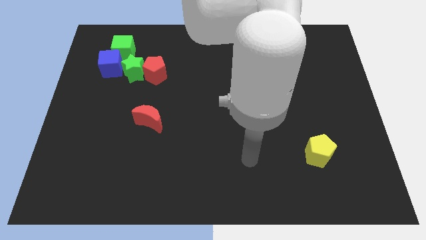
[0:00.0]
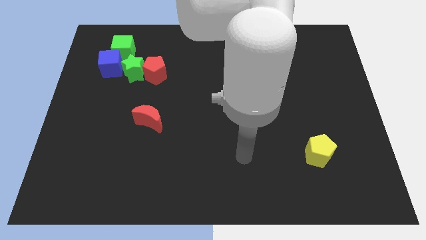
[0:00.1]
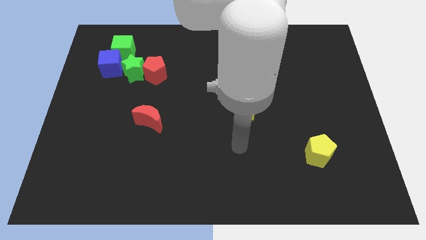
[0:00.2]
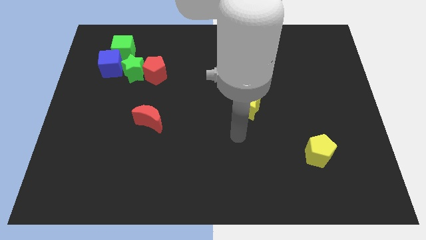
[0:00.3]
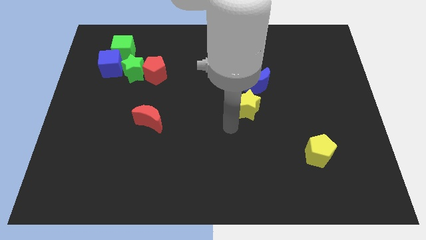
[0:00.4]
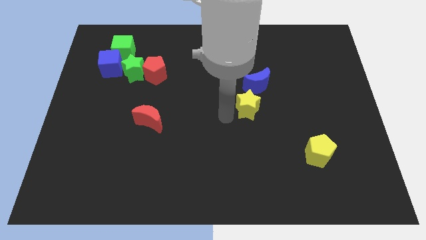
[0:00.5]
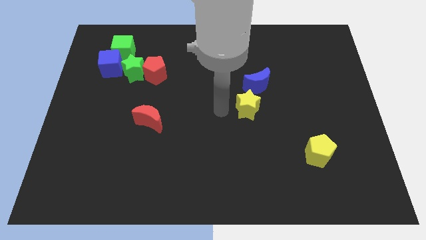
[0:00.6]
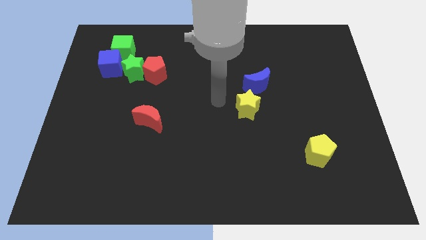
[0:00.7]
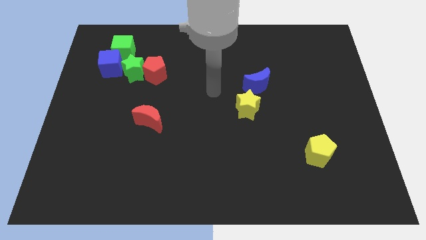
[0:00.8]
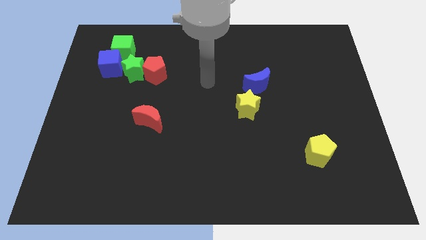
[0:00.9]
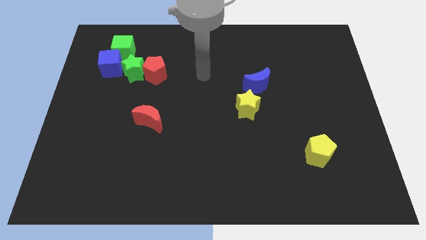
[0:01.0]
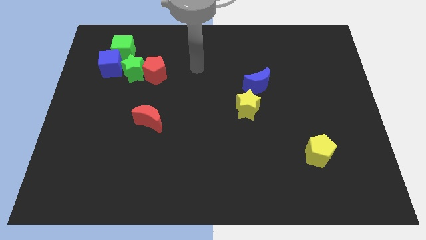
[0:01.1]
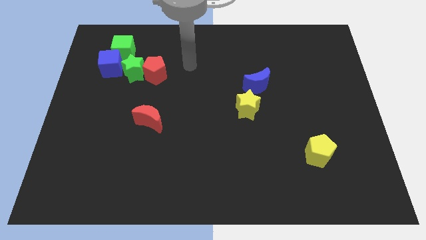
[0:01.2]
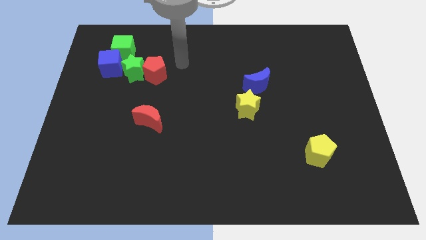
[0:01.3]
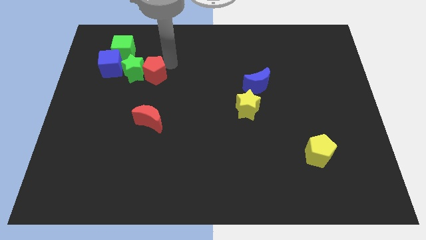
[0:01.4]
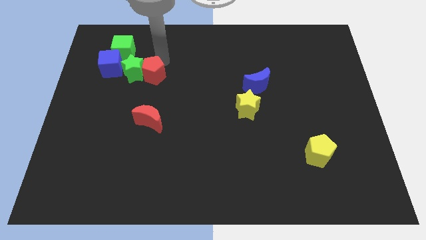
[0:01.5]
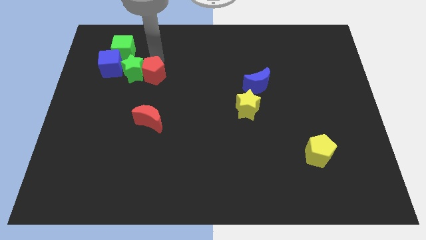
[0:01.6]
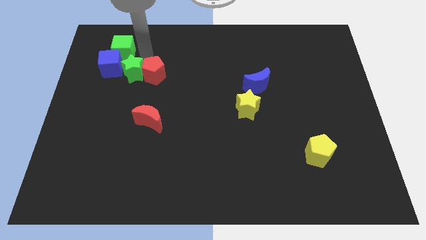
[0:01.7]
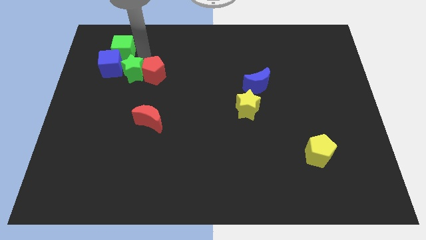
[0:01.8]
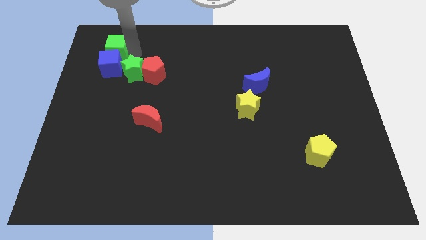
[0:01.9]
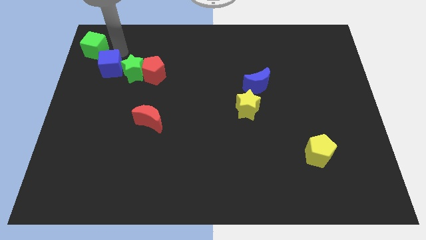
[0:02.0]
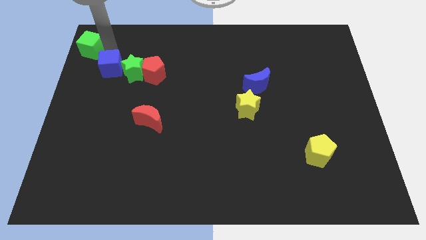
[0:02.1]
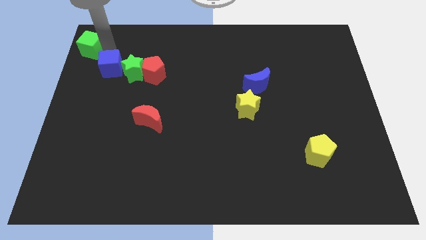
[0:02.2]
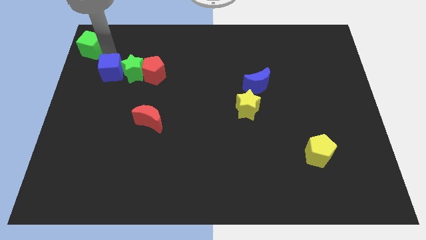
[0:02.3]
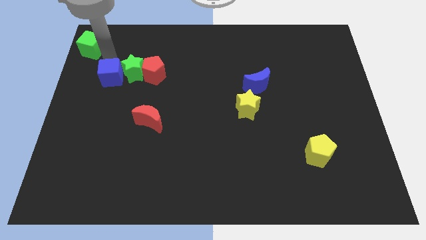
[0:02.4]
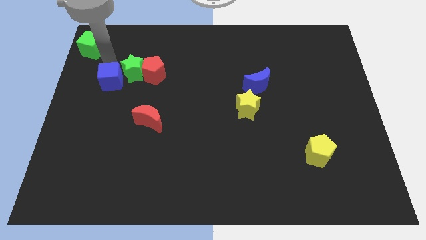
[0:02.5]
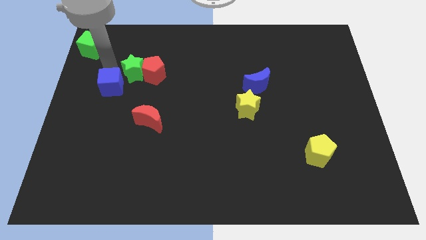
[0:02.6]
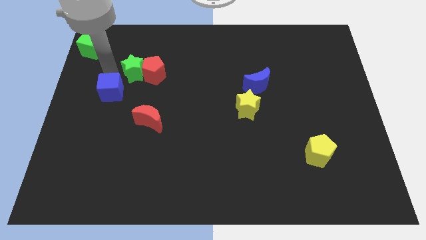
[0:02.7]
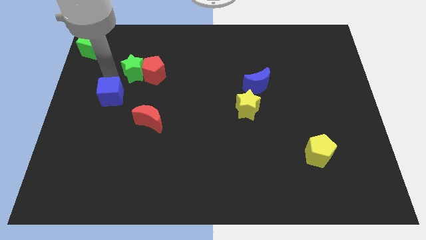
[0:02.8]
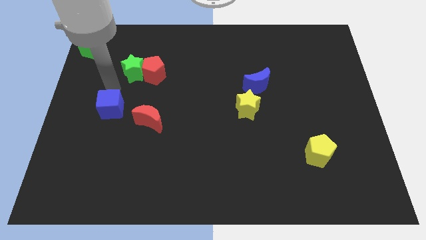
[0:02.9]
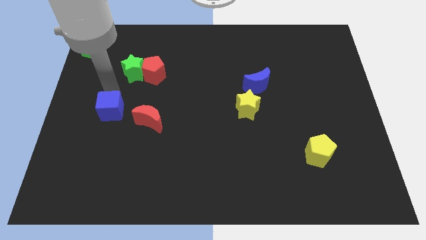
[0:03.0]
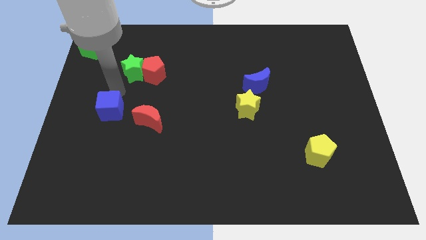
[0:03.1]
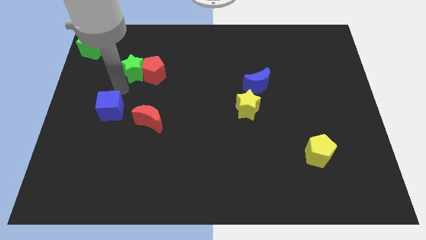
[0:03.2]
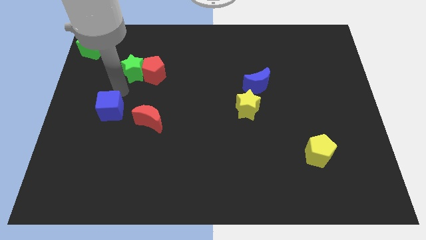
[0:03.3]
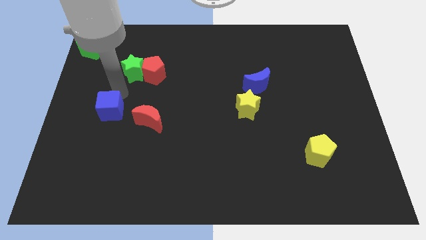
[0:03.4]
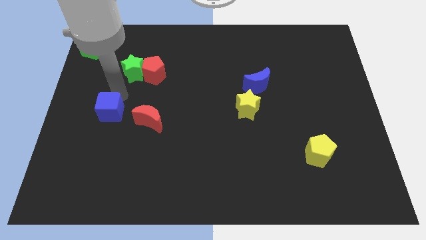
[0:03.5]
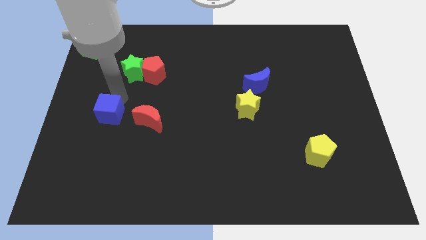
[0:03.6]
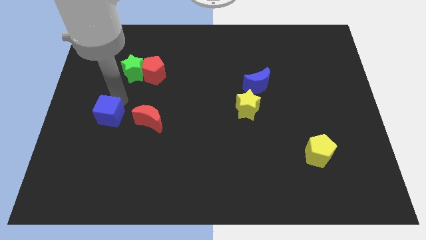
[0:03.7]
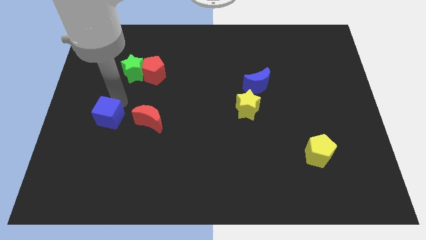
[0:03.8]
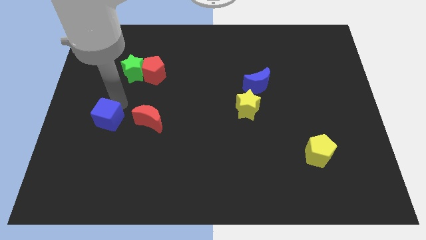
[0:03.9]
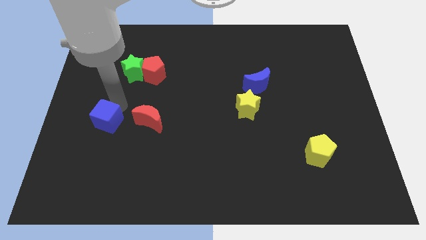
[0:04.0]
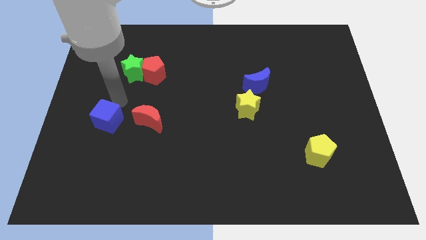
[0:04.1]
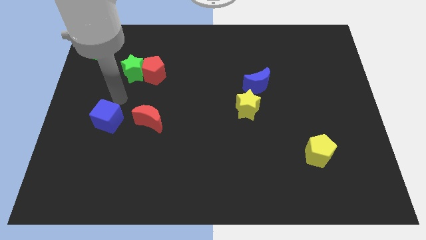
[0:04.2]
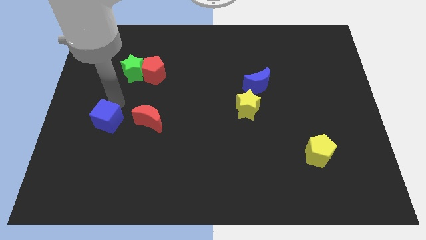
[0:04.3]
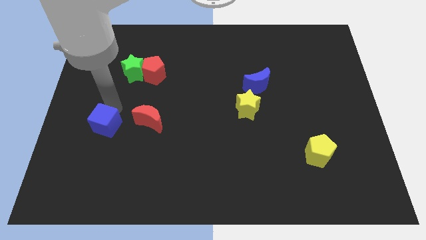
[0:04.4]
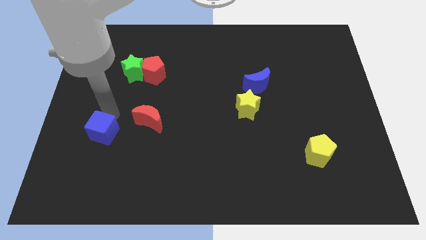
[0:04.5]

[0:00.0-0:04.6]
move the blue cube downwards

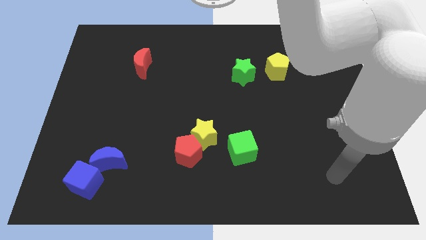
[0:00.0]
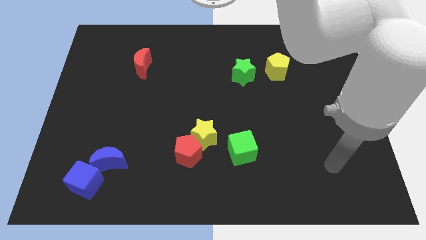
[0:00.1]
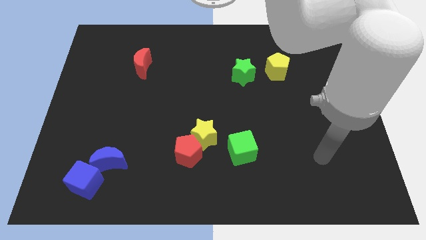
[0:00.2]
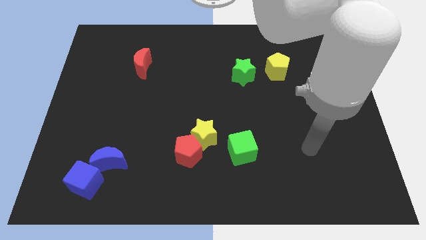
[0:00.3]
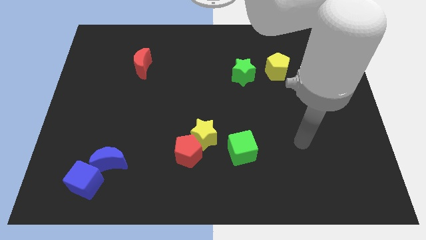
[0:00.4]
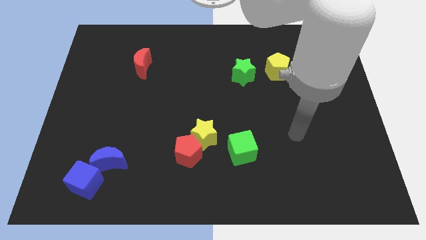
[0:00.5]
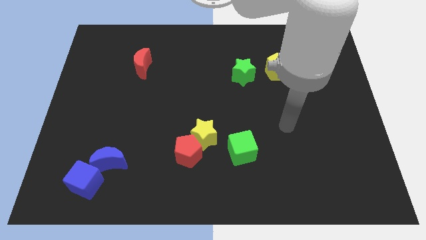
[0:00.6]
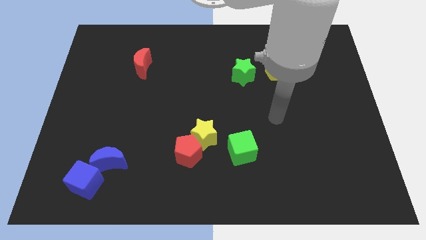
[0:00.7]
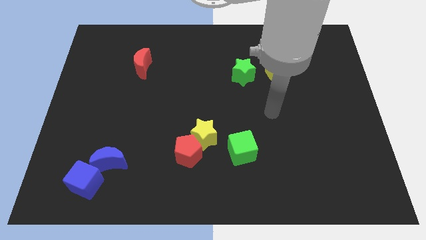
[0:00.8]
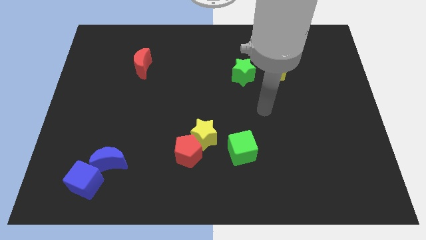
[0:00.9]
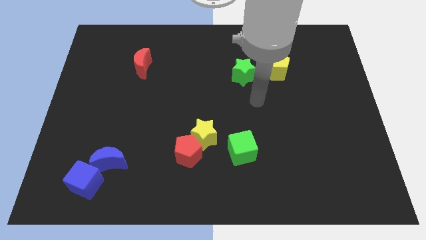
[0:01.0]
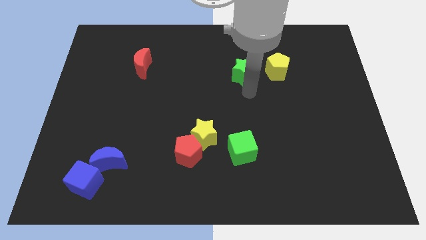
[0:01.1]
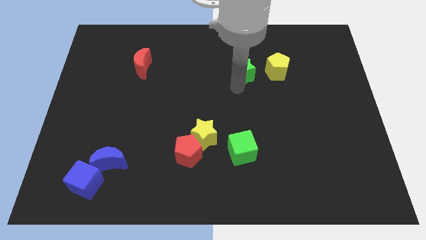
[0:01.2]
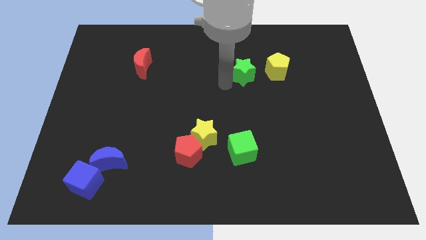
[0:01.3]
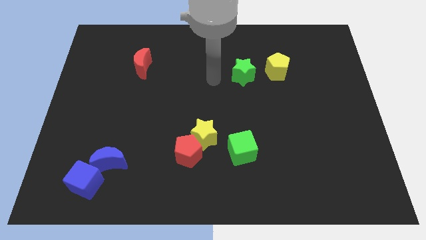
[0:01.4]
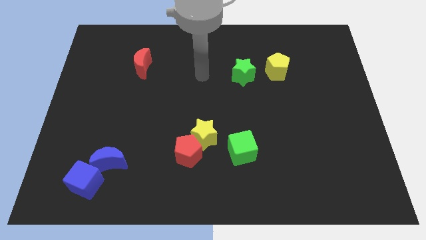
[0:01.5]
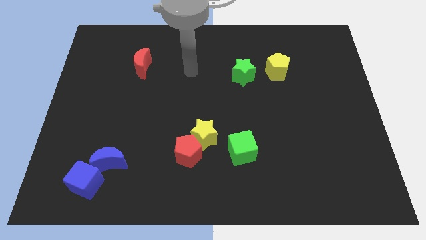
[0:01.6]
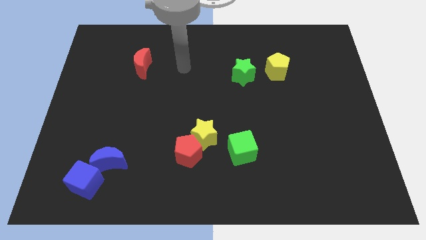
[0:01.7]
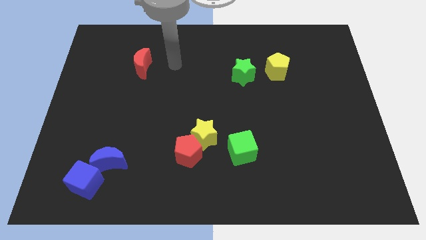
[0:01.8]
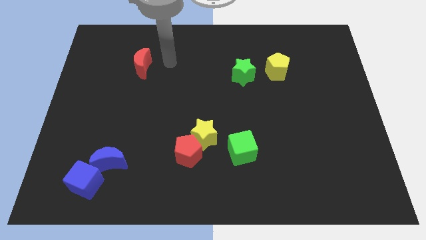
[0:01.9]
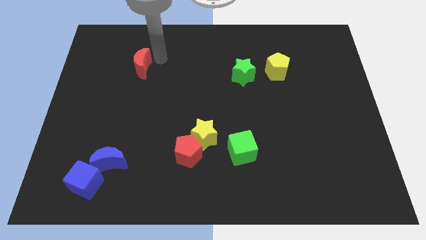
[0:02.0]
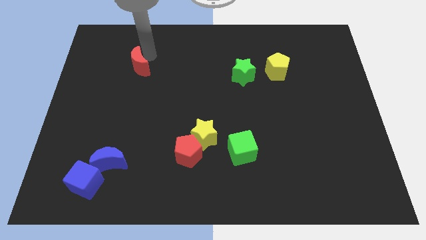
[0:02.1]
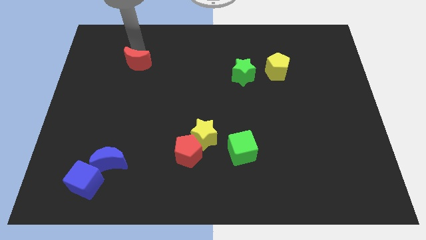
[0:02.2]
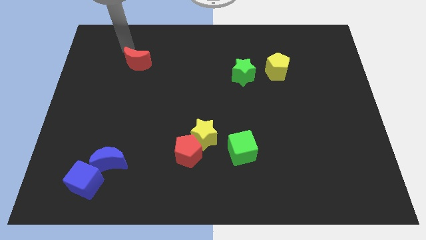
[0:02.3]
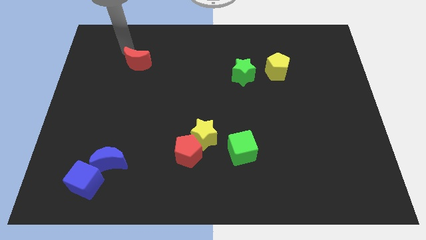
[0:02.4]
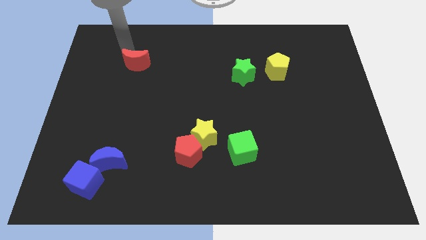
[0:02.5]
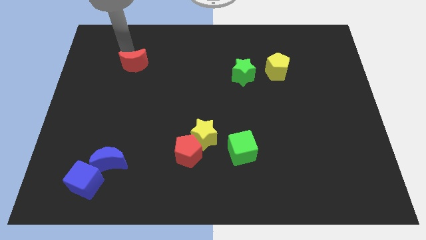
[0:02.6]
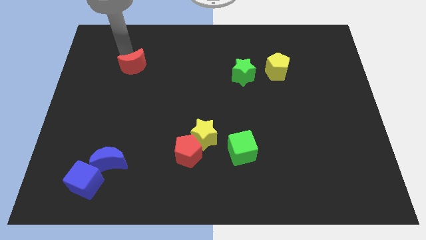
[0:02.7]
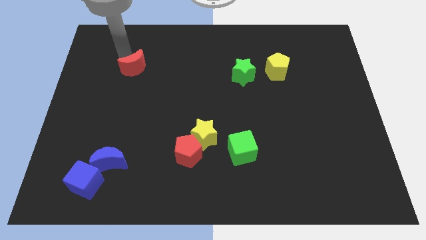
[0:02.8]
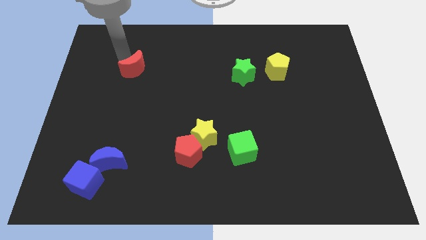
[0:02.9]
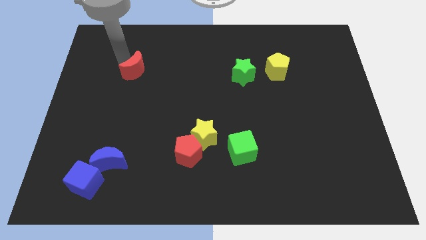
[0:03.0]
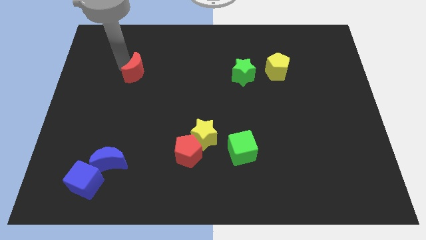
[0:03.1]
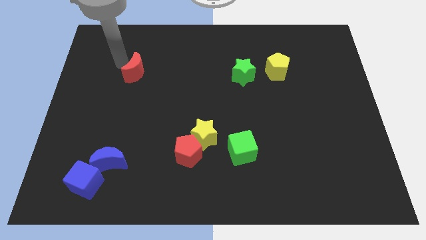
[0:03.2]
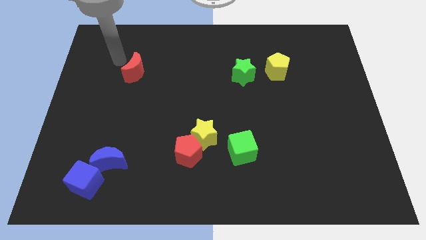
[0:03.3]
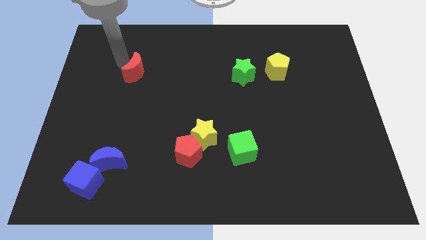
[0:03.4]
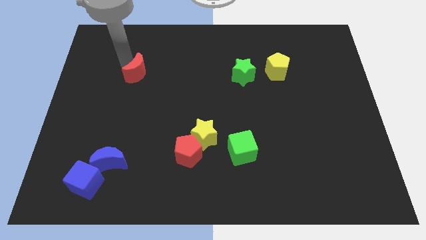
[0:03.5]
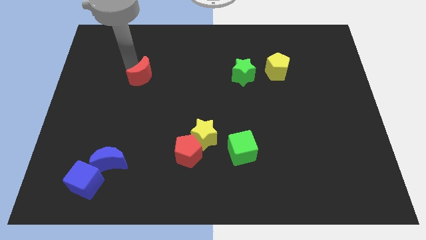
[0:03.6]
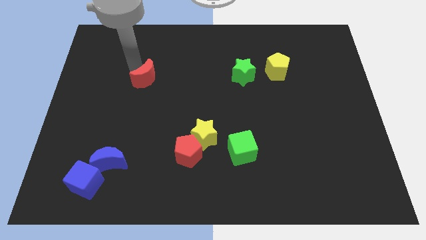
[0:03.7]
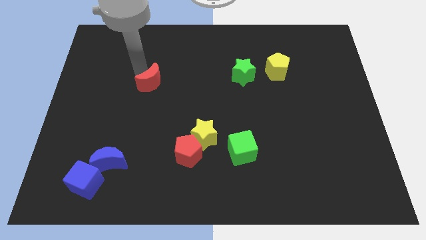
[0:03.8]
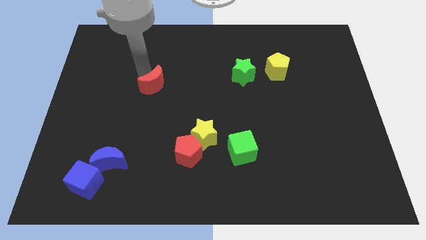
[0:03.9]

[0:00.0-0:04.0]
move the red moon a little bit downwards and right
